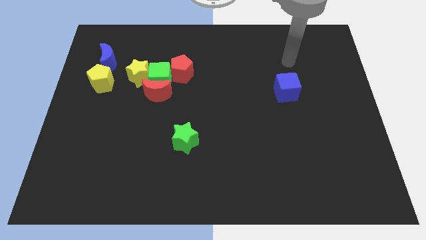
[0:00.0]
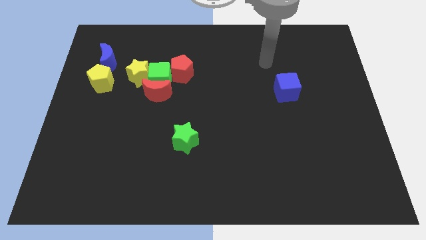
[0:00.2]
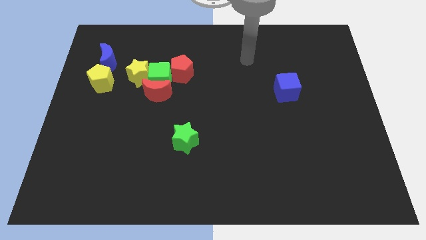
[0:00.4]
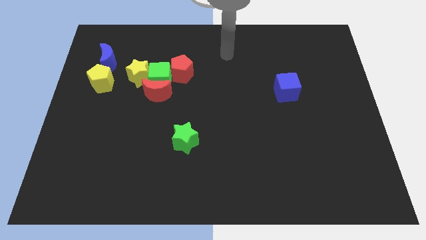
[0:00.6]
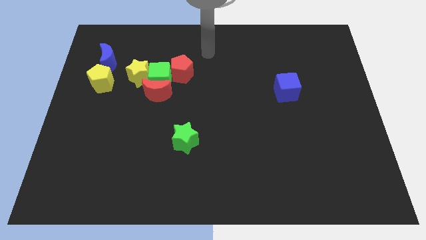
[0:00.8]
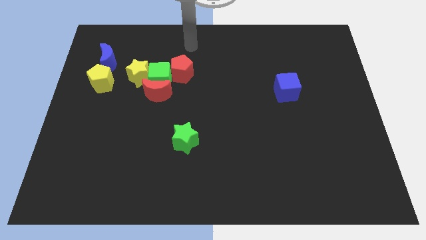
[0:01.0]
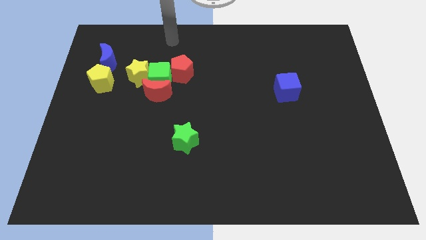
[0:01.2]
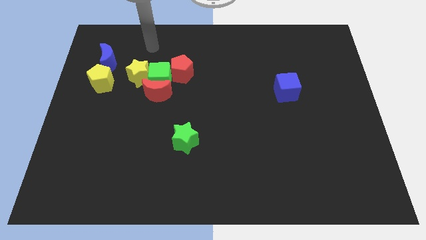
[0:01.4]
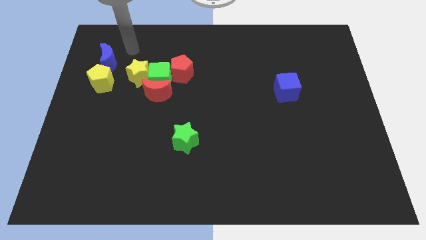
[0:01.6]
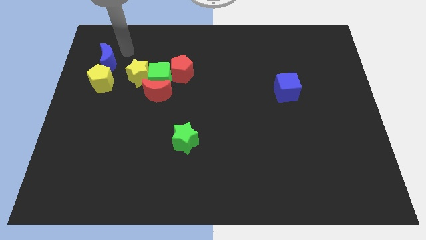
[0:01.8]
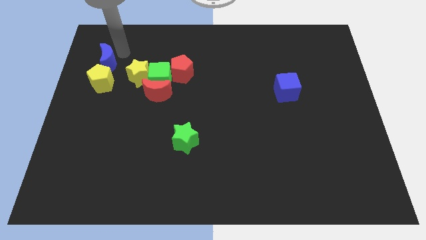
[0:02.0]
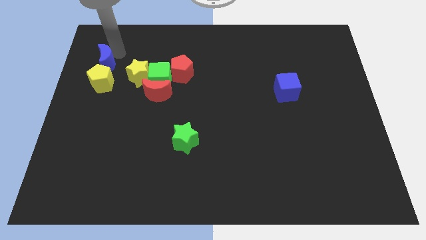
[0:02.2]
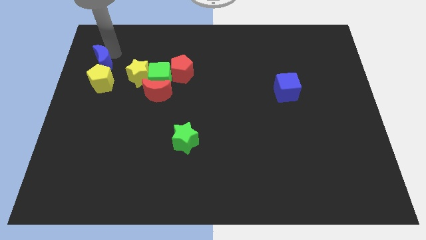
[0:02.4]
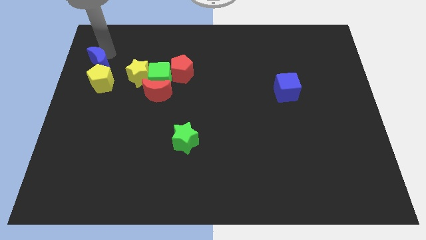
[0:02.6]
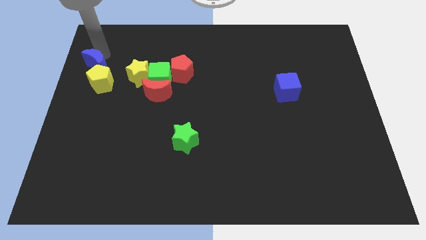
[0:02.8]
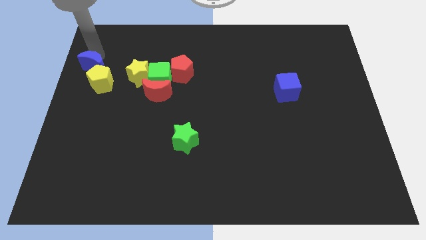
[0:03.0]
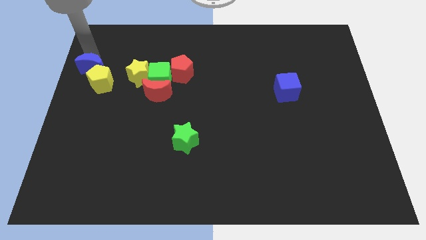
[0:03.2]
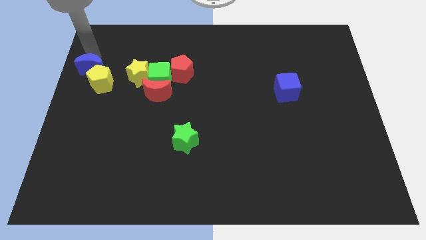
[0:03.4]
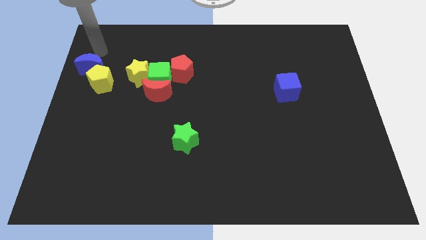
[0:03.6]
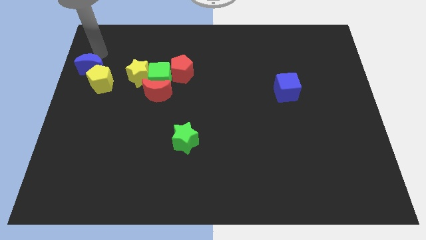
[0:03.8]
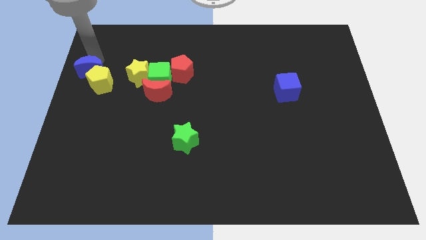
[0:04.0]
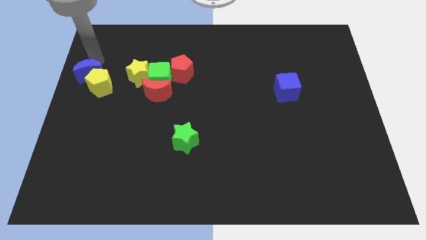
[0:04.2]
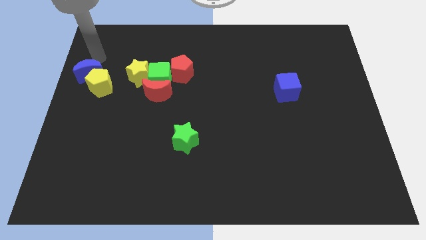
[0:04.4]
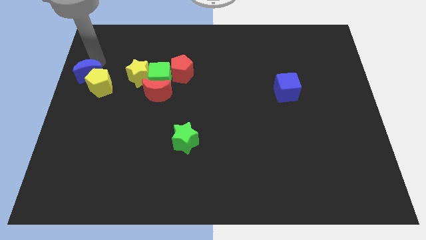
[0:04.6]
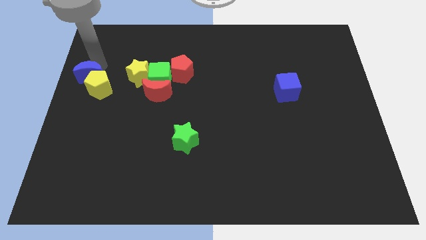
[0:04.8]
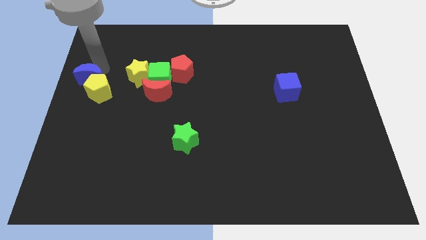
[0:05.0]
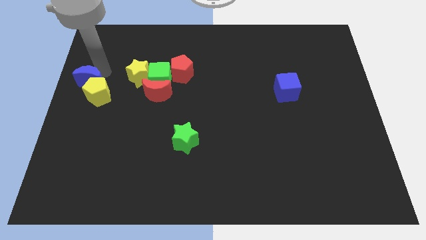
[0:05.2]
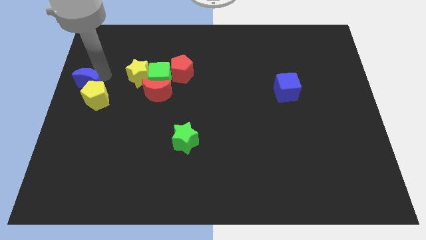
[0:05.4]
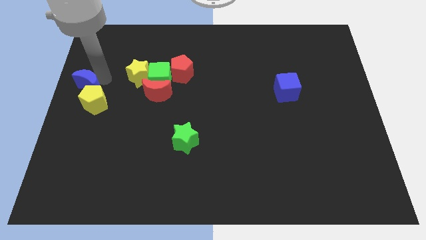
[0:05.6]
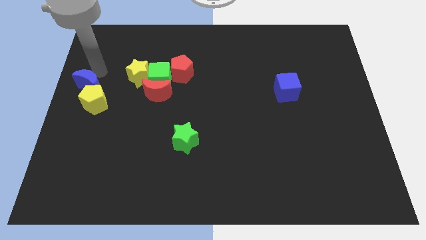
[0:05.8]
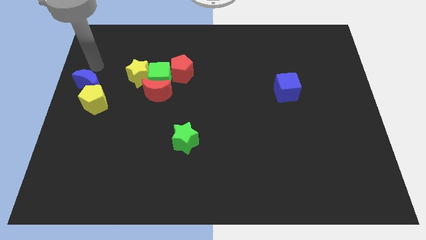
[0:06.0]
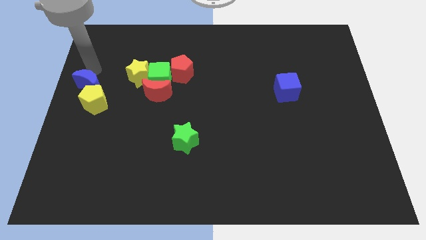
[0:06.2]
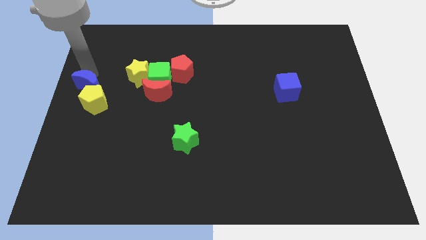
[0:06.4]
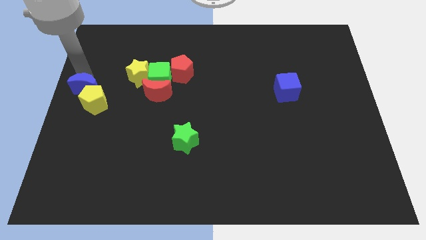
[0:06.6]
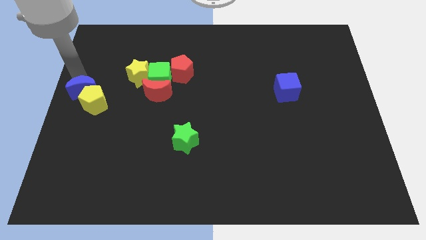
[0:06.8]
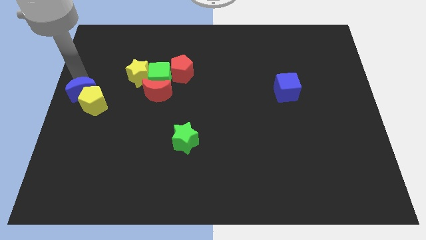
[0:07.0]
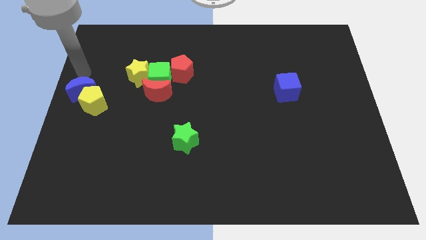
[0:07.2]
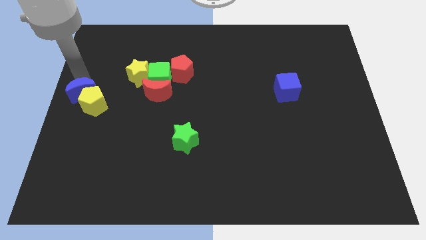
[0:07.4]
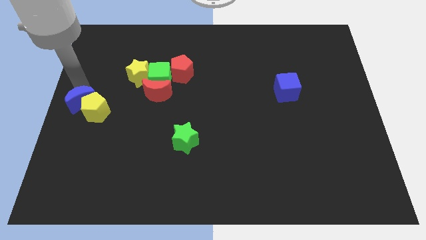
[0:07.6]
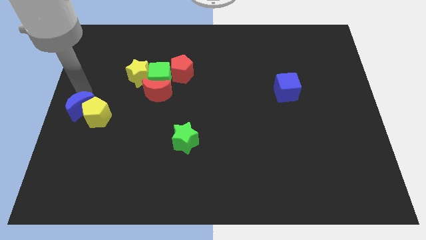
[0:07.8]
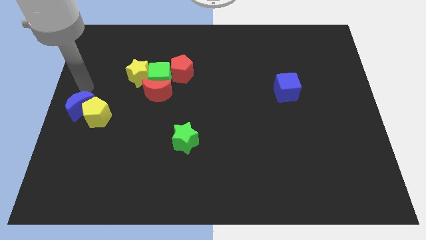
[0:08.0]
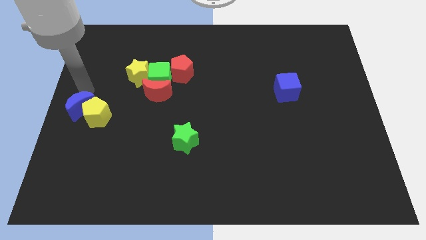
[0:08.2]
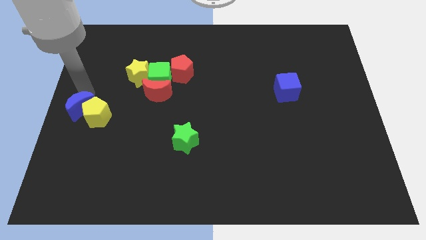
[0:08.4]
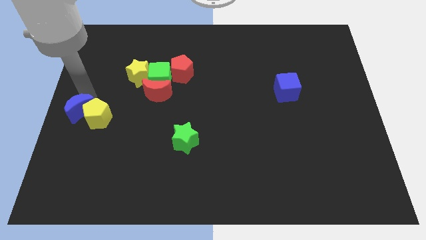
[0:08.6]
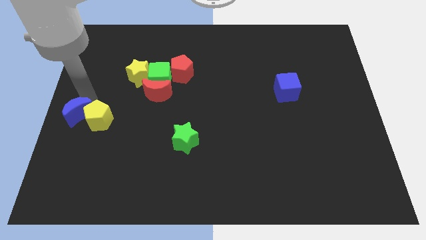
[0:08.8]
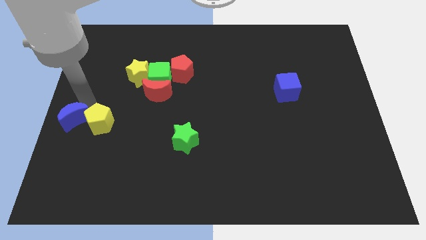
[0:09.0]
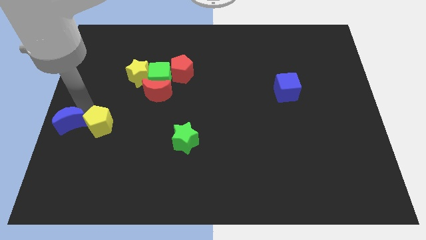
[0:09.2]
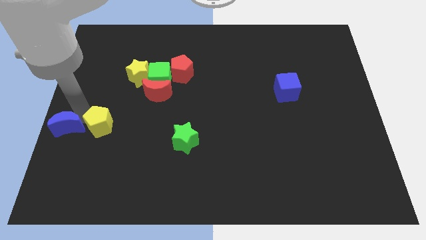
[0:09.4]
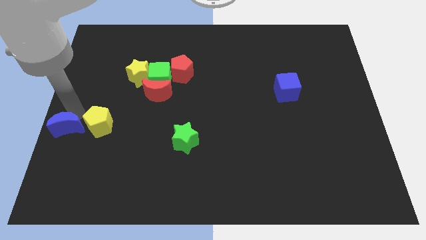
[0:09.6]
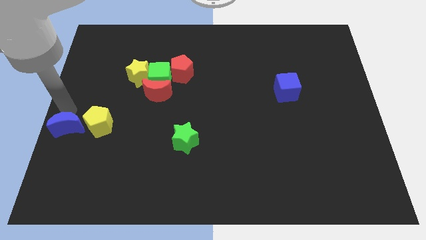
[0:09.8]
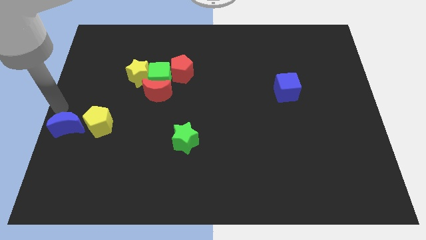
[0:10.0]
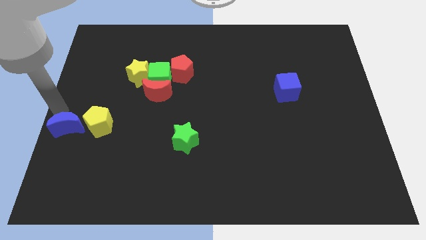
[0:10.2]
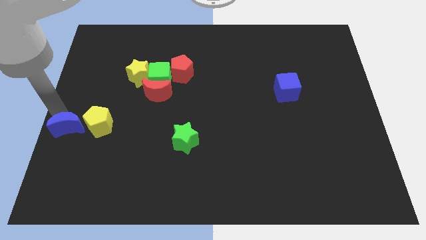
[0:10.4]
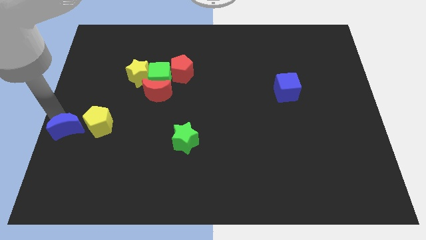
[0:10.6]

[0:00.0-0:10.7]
push the blue moon downwards

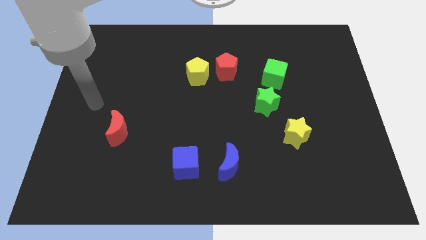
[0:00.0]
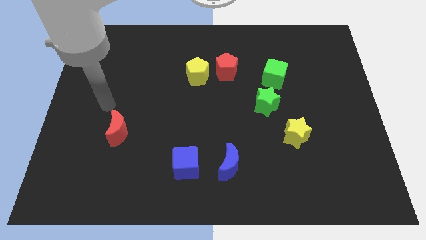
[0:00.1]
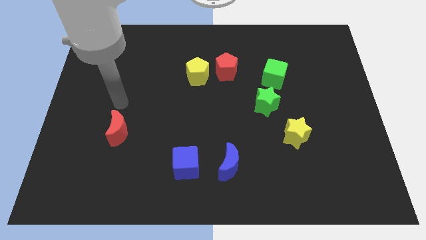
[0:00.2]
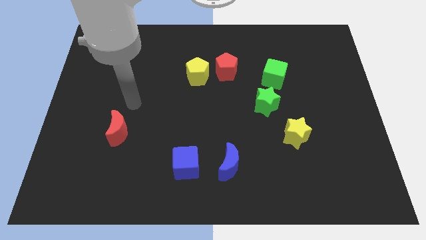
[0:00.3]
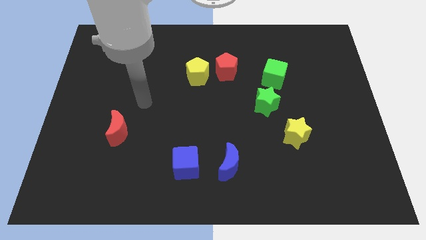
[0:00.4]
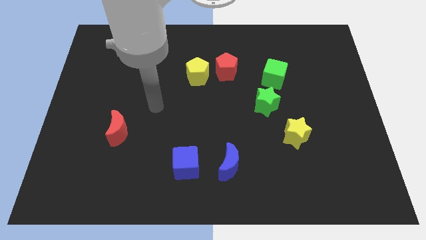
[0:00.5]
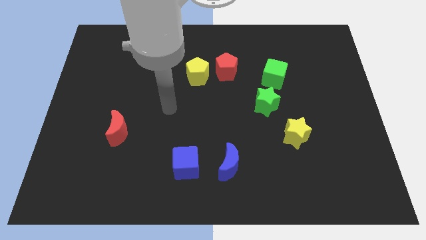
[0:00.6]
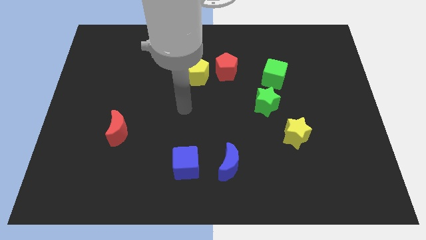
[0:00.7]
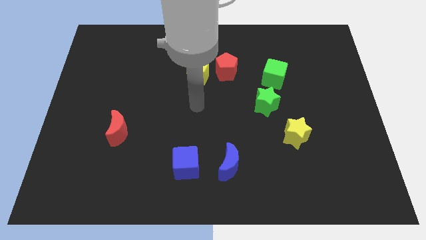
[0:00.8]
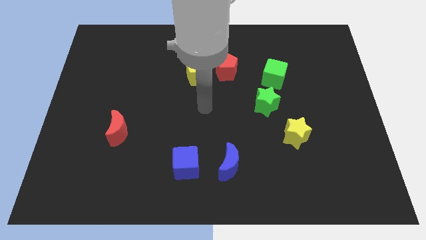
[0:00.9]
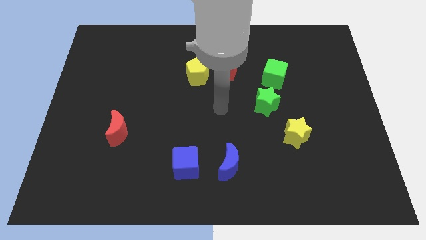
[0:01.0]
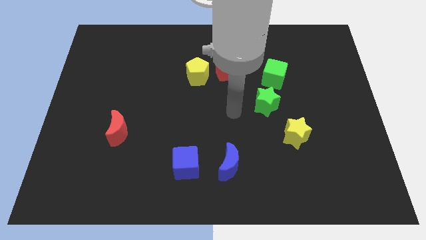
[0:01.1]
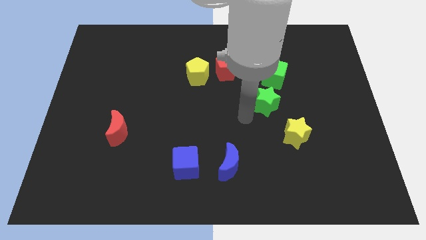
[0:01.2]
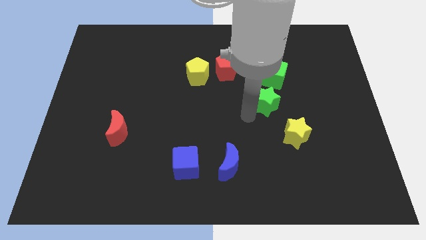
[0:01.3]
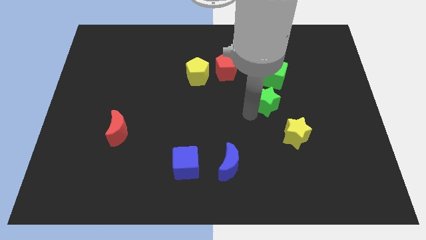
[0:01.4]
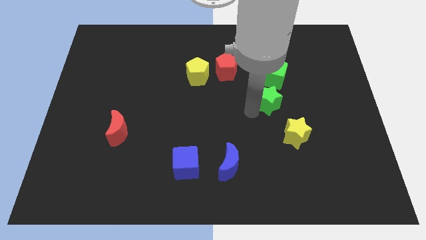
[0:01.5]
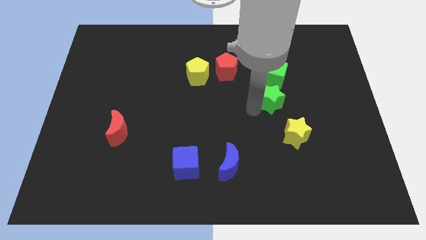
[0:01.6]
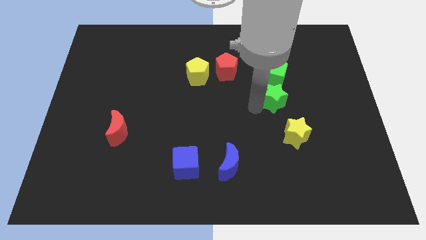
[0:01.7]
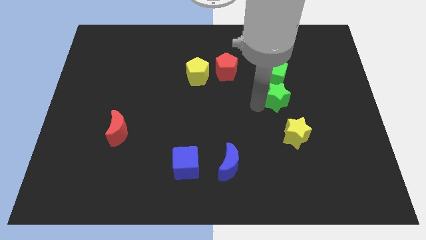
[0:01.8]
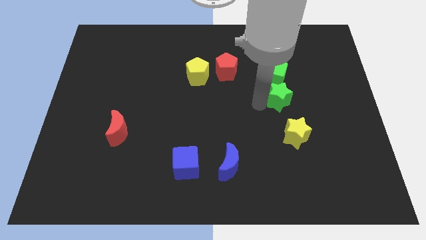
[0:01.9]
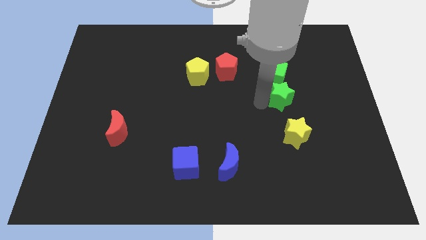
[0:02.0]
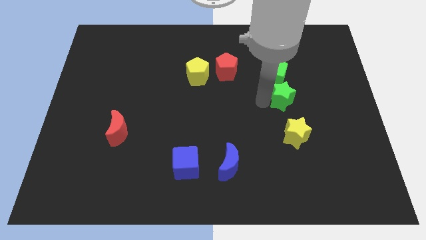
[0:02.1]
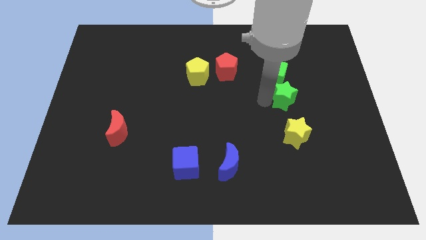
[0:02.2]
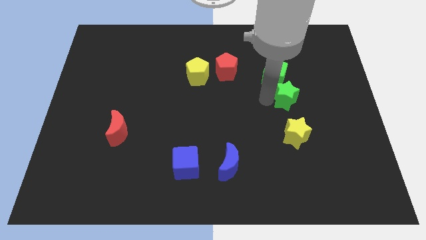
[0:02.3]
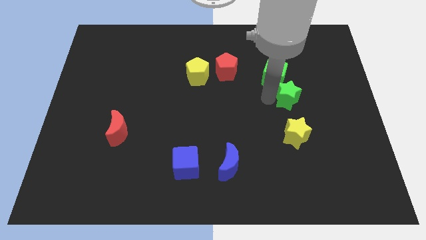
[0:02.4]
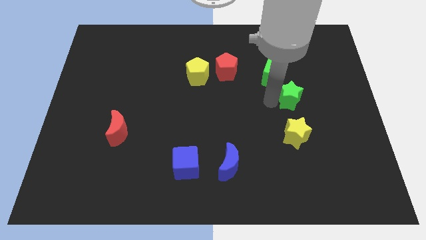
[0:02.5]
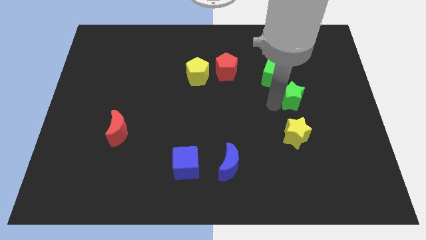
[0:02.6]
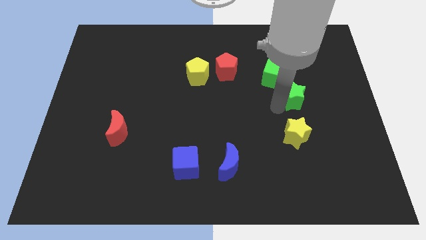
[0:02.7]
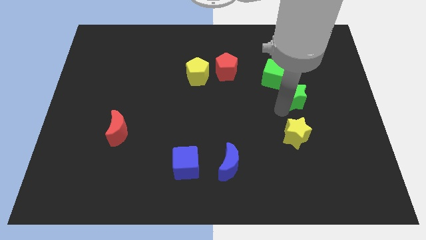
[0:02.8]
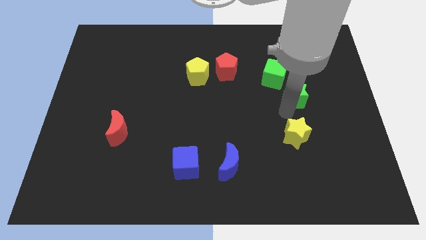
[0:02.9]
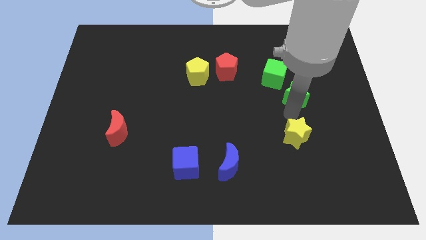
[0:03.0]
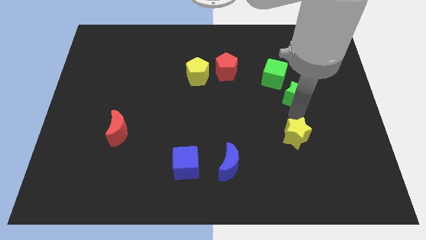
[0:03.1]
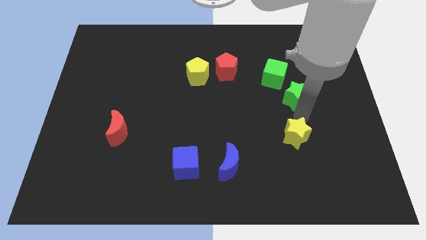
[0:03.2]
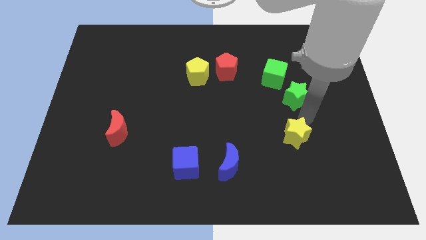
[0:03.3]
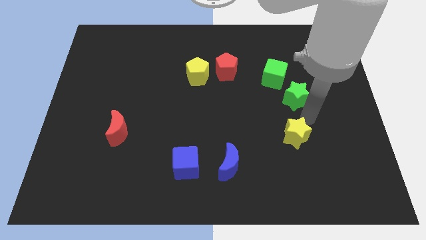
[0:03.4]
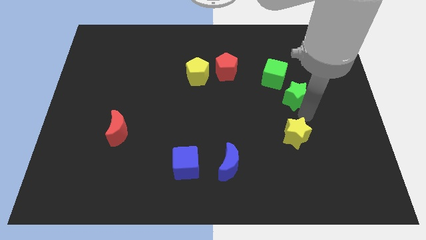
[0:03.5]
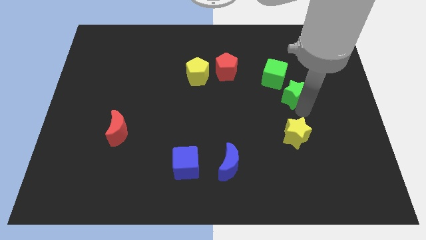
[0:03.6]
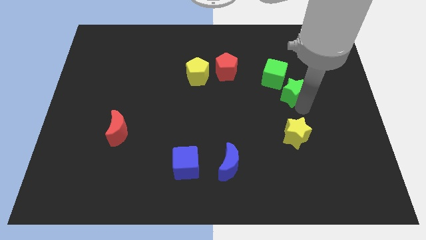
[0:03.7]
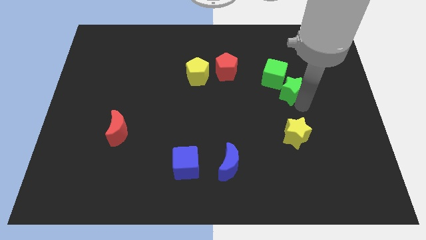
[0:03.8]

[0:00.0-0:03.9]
slide the green star somewhat up and right diagonally
